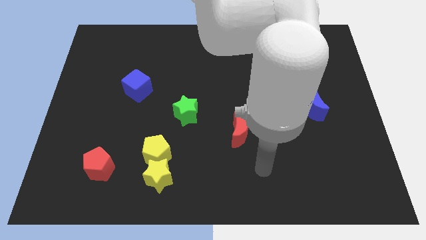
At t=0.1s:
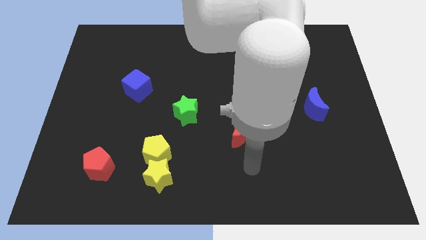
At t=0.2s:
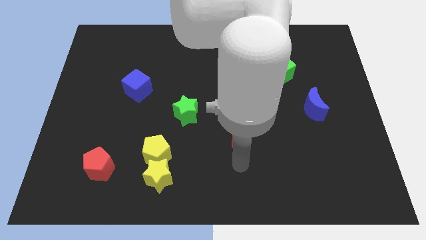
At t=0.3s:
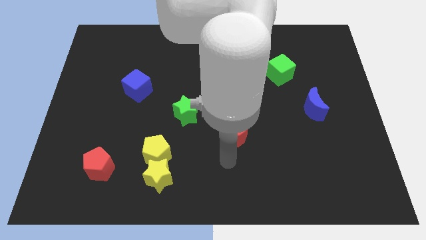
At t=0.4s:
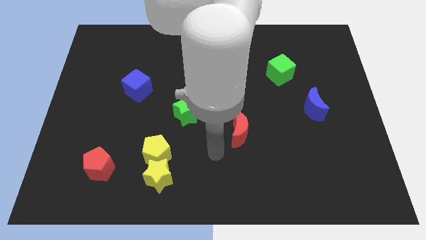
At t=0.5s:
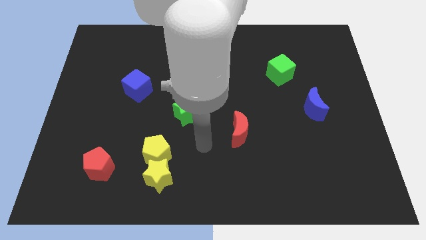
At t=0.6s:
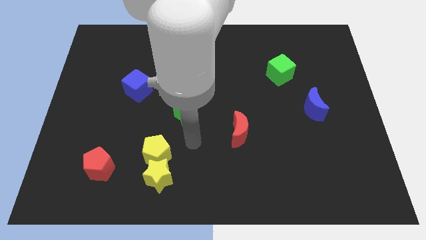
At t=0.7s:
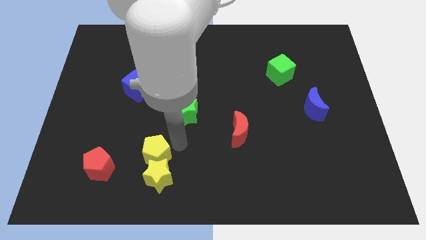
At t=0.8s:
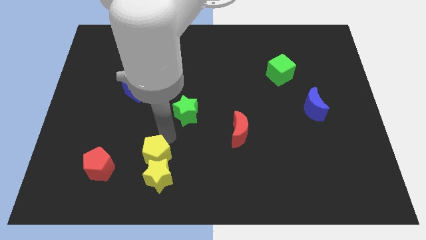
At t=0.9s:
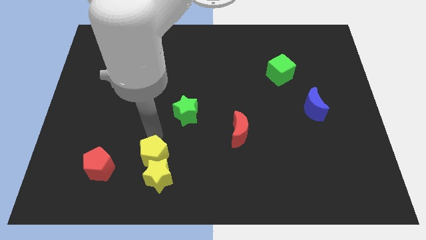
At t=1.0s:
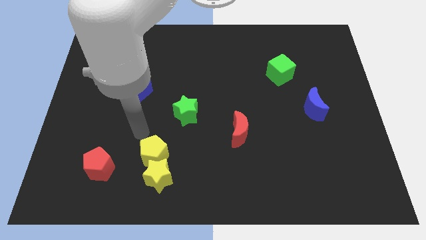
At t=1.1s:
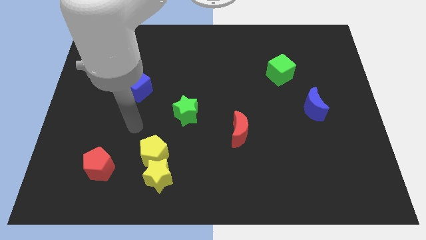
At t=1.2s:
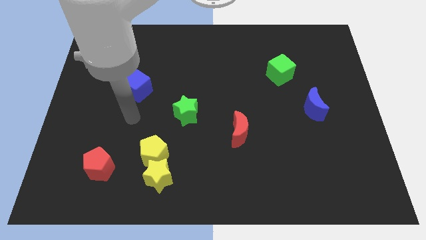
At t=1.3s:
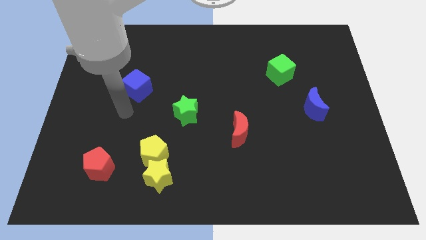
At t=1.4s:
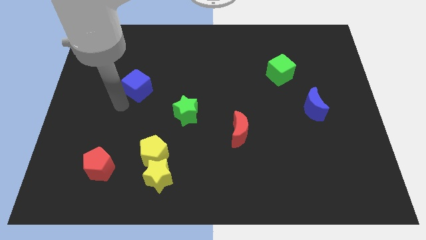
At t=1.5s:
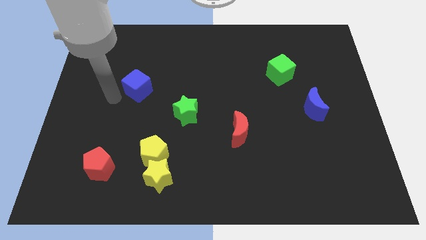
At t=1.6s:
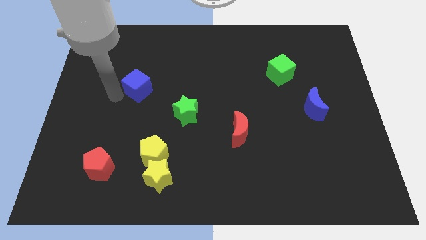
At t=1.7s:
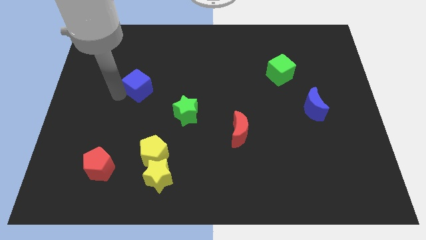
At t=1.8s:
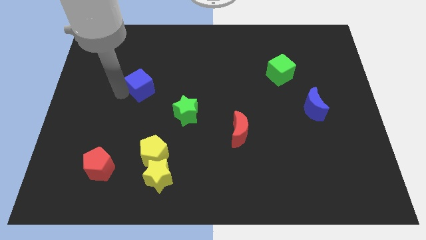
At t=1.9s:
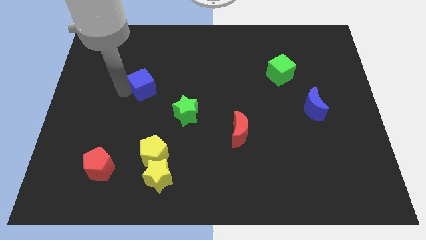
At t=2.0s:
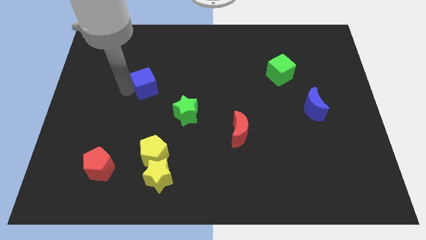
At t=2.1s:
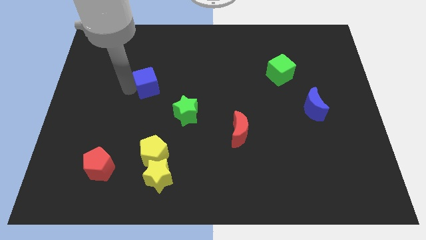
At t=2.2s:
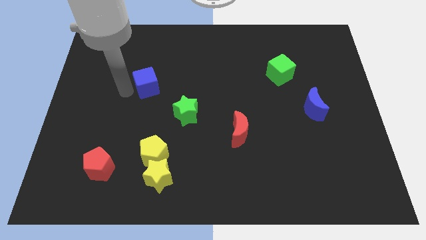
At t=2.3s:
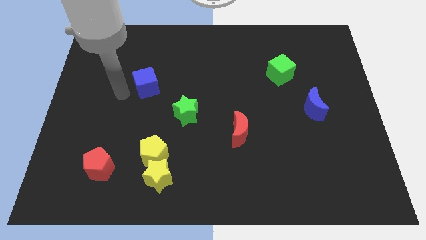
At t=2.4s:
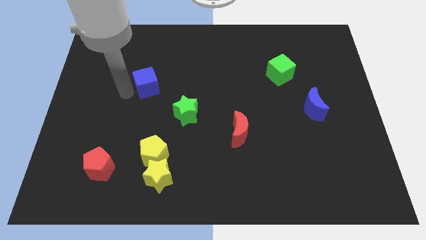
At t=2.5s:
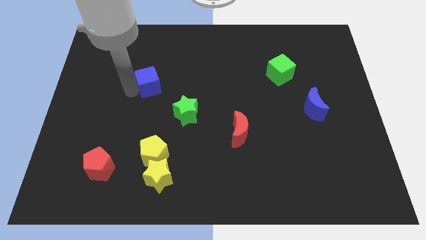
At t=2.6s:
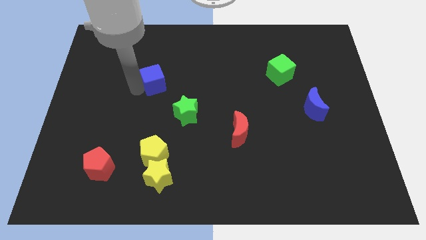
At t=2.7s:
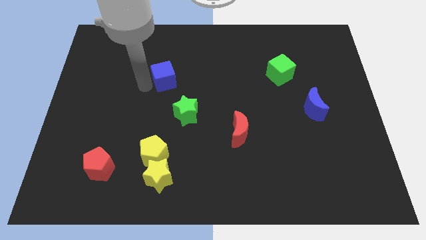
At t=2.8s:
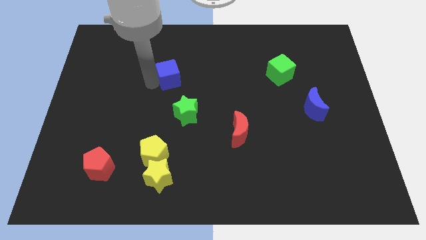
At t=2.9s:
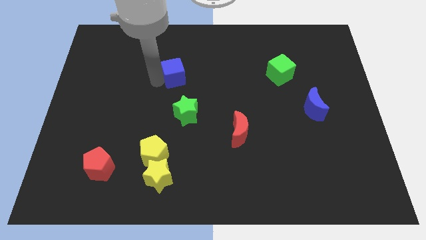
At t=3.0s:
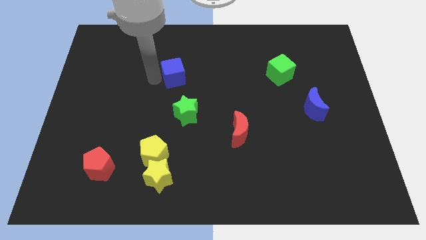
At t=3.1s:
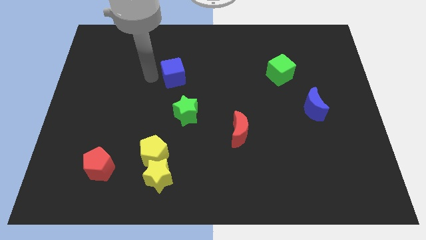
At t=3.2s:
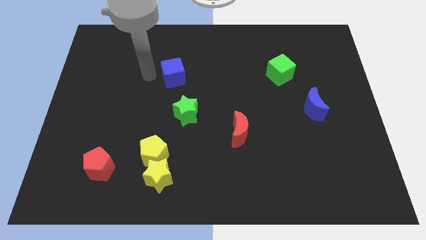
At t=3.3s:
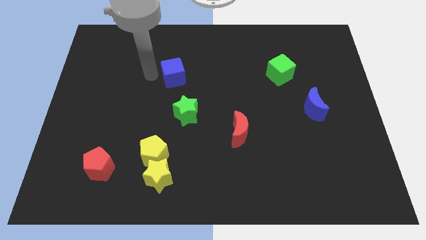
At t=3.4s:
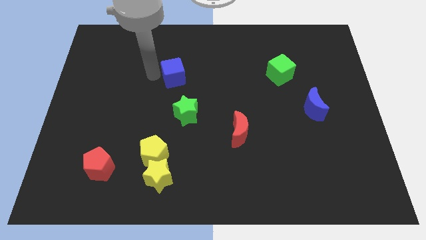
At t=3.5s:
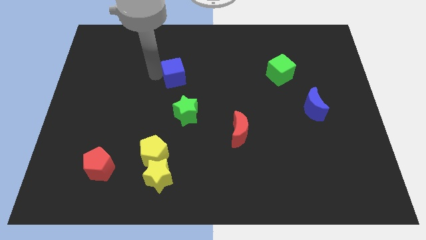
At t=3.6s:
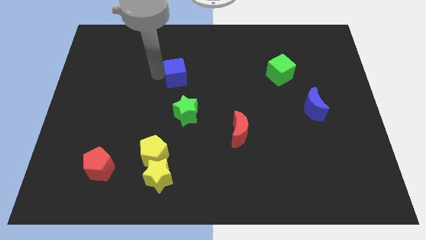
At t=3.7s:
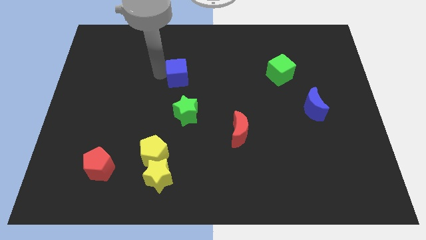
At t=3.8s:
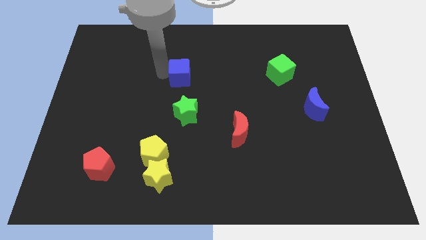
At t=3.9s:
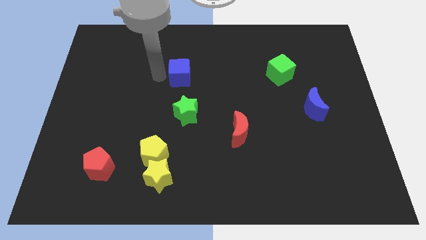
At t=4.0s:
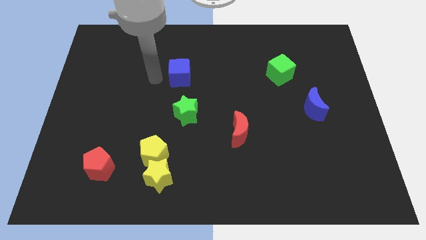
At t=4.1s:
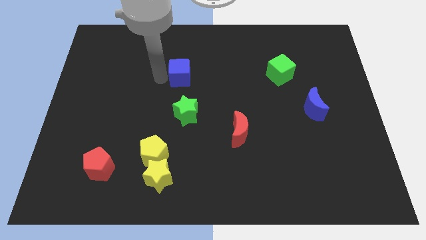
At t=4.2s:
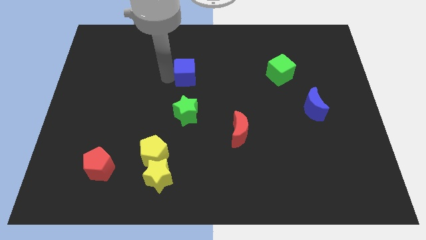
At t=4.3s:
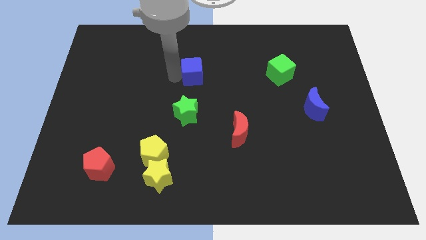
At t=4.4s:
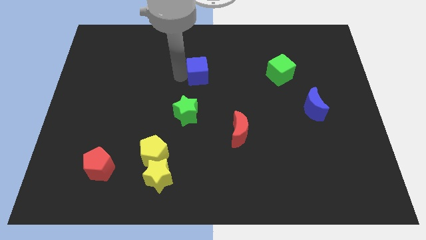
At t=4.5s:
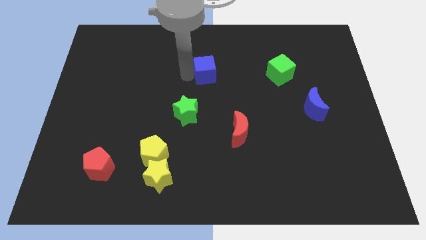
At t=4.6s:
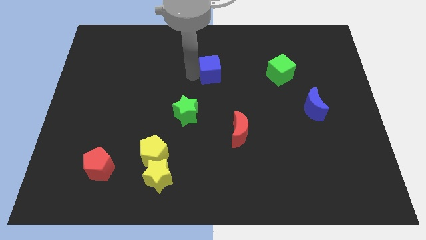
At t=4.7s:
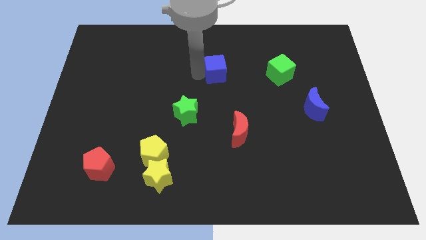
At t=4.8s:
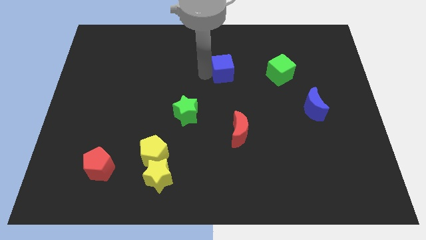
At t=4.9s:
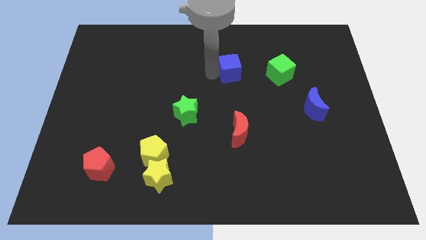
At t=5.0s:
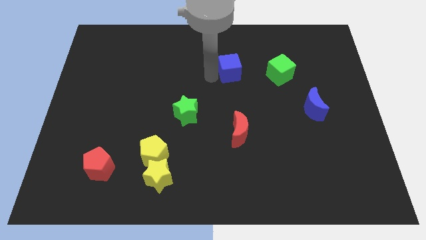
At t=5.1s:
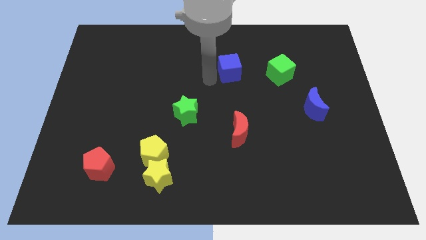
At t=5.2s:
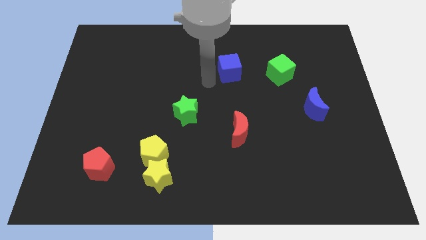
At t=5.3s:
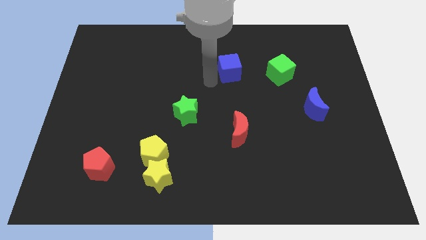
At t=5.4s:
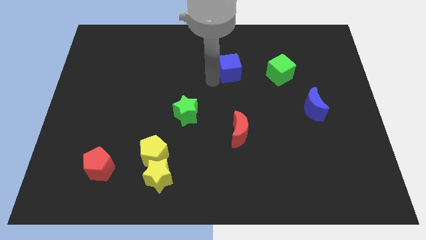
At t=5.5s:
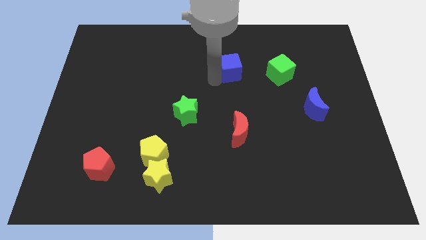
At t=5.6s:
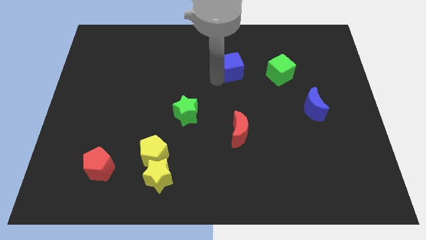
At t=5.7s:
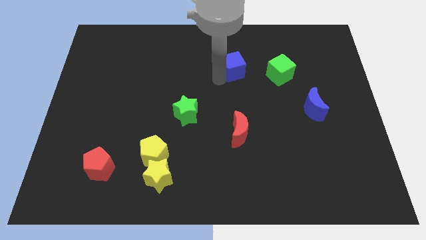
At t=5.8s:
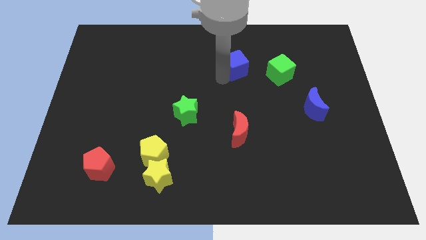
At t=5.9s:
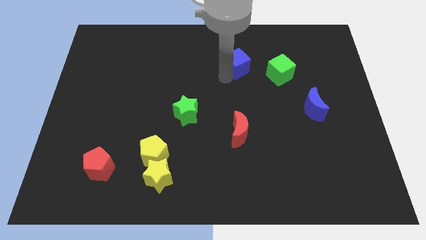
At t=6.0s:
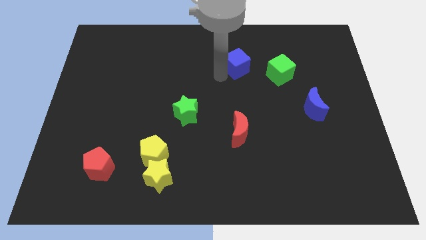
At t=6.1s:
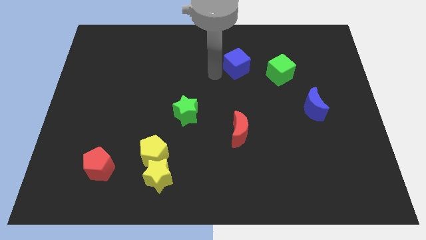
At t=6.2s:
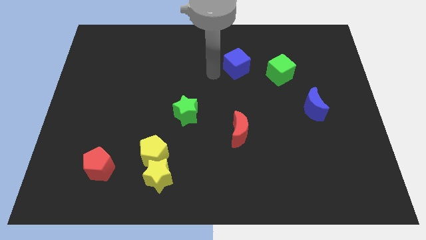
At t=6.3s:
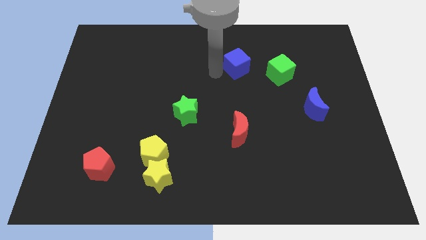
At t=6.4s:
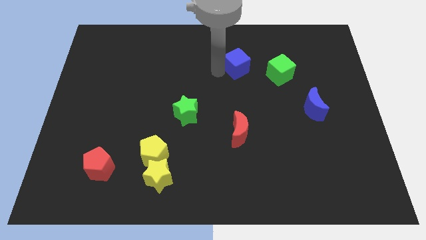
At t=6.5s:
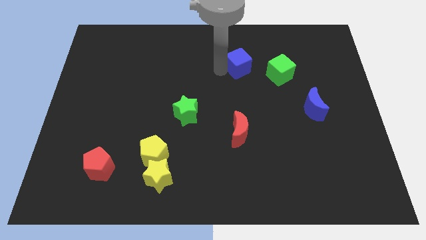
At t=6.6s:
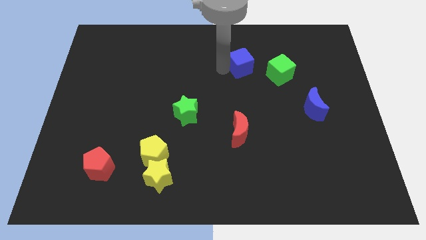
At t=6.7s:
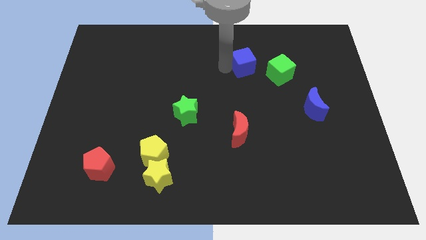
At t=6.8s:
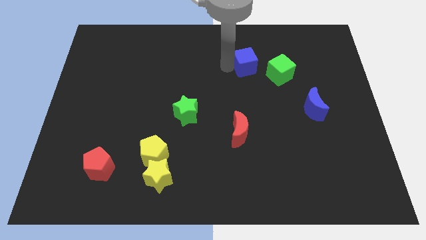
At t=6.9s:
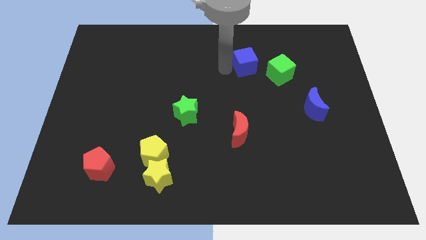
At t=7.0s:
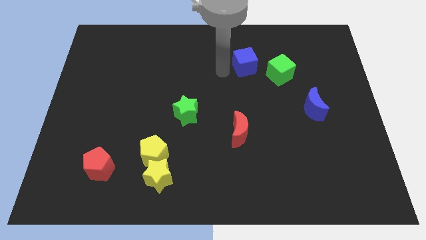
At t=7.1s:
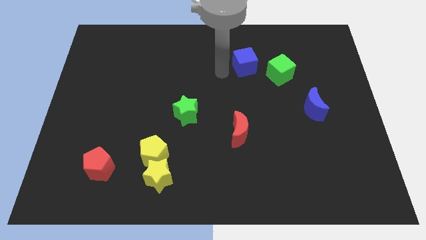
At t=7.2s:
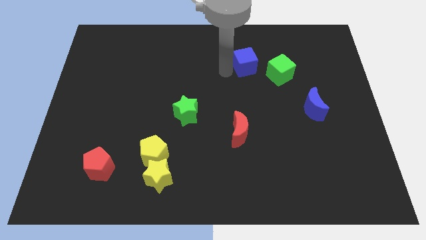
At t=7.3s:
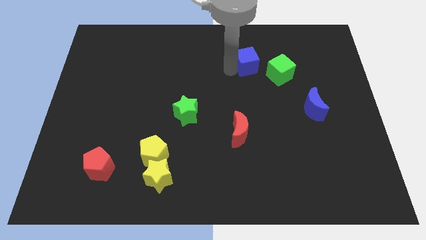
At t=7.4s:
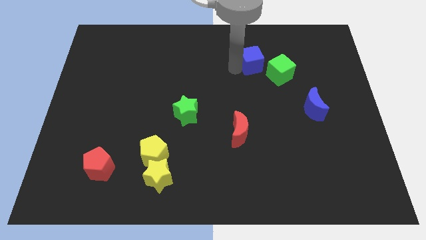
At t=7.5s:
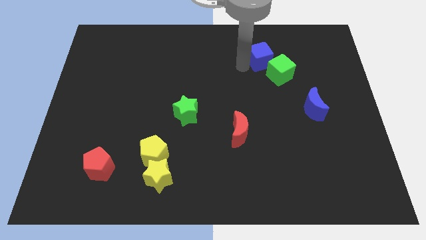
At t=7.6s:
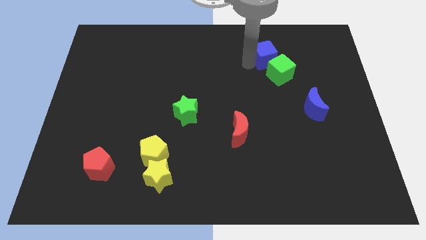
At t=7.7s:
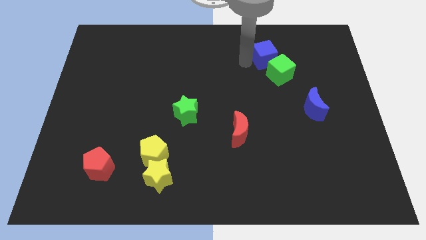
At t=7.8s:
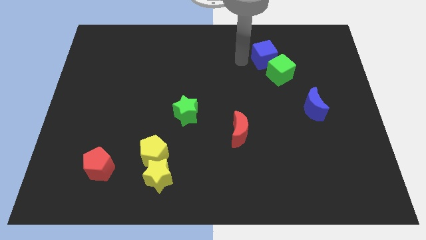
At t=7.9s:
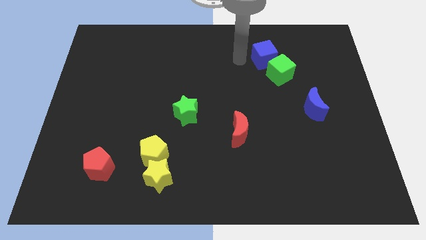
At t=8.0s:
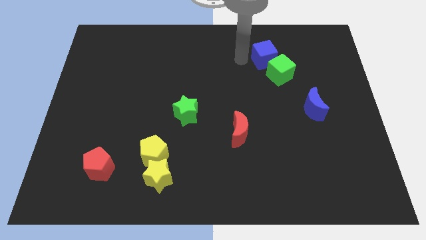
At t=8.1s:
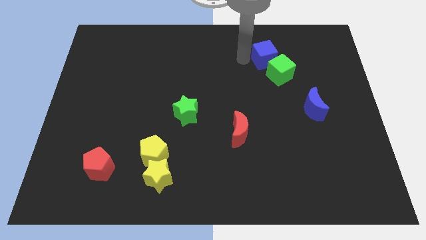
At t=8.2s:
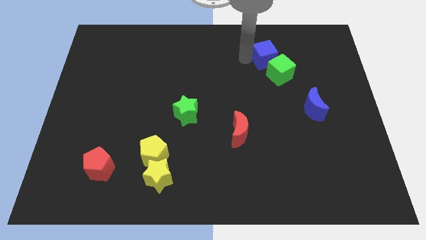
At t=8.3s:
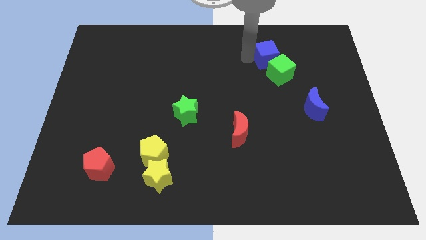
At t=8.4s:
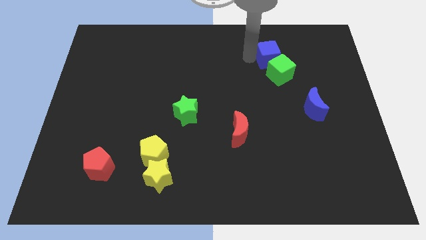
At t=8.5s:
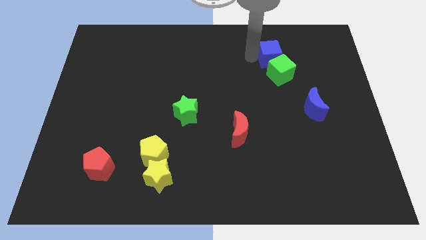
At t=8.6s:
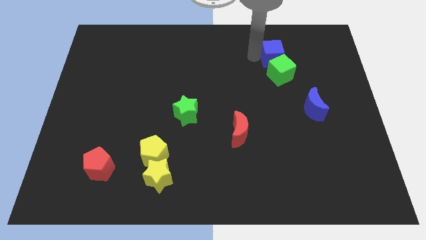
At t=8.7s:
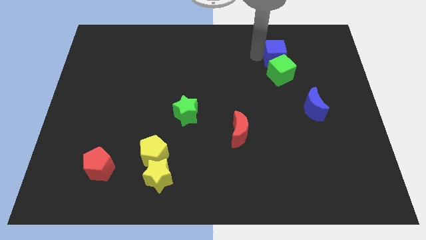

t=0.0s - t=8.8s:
put the blue cube to the top right side of the green cube

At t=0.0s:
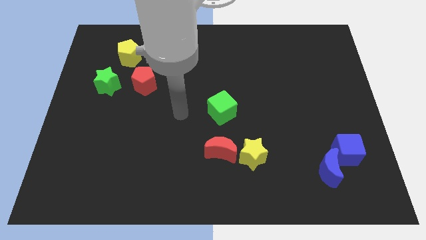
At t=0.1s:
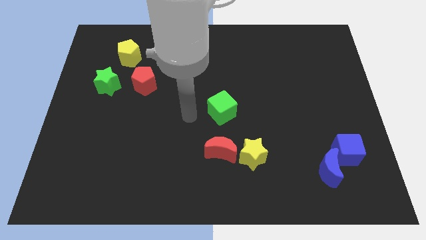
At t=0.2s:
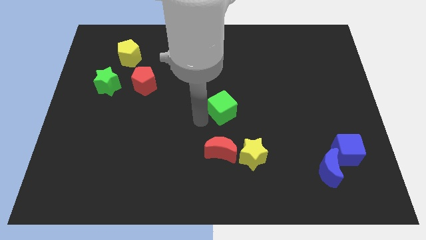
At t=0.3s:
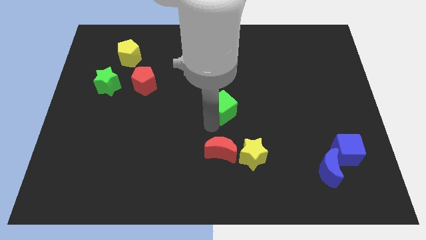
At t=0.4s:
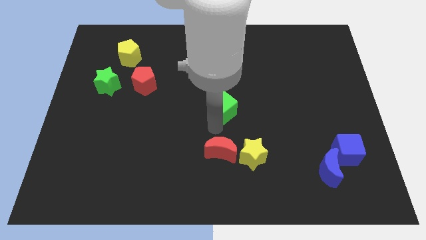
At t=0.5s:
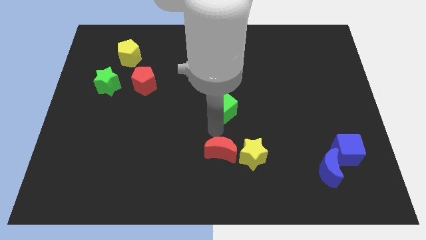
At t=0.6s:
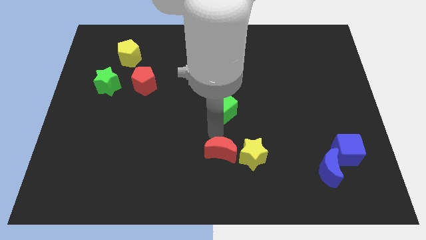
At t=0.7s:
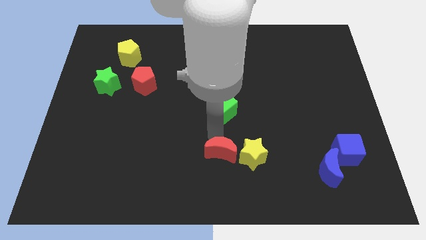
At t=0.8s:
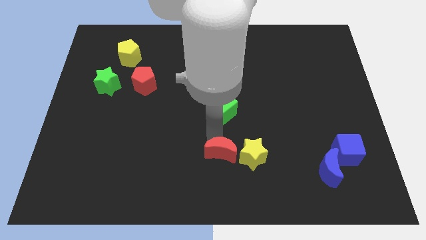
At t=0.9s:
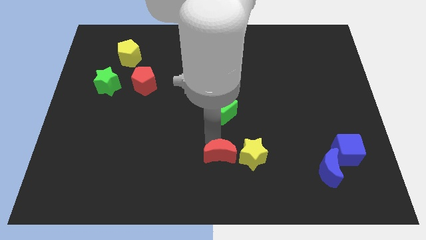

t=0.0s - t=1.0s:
put the red moon diagonally down and to the left of the yellow star
